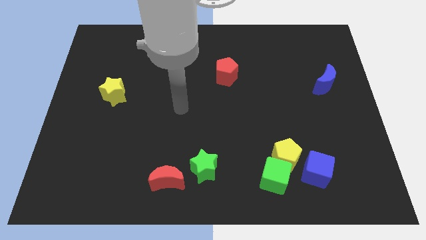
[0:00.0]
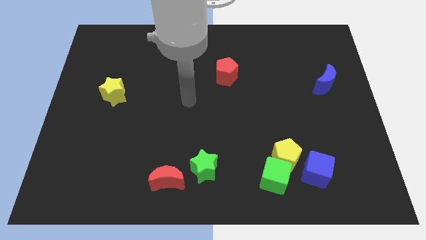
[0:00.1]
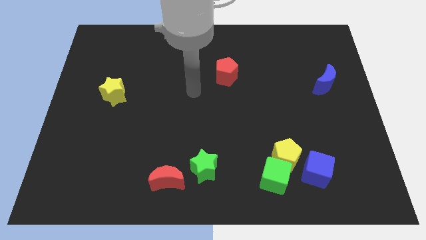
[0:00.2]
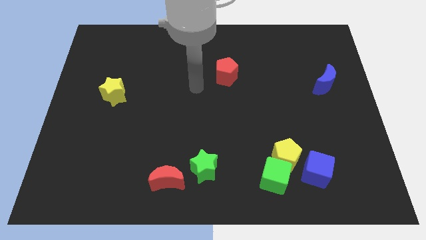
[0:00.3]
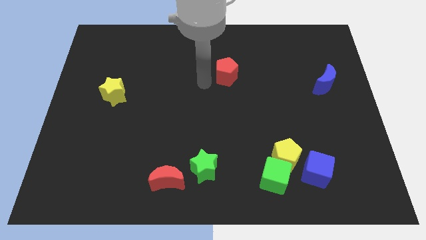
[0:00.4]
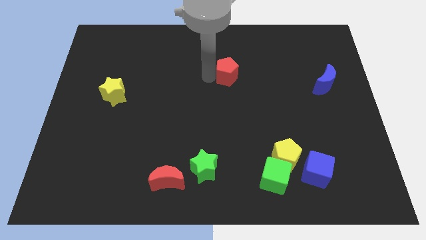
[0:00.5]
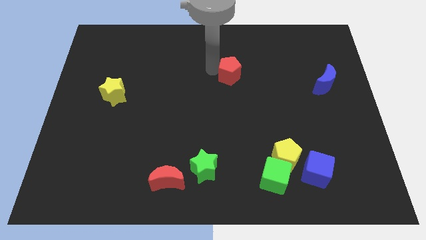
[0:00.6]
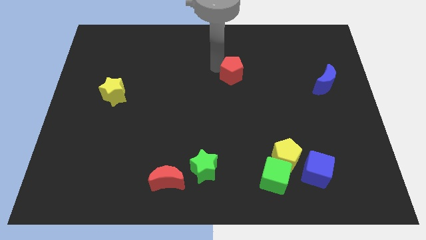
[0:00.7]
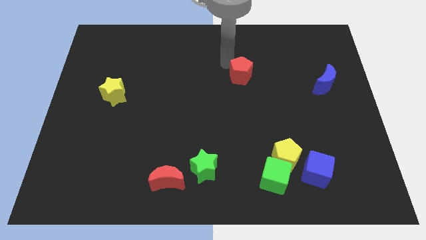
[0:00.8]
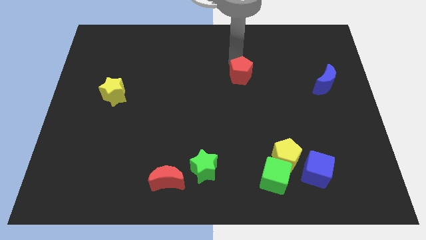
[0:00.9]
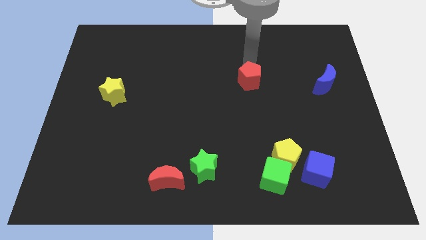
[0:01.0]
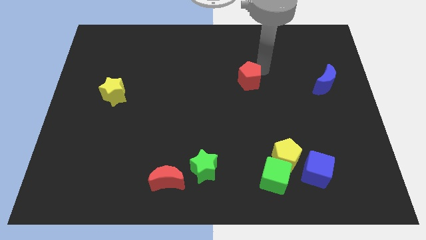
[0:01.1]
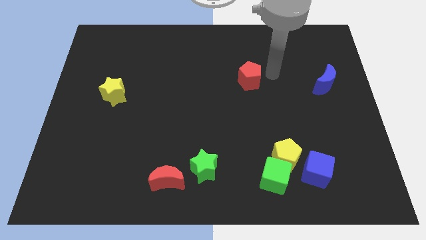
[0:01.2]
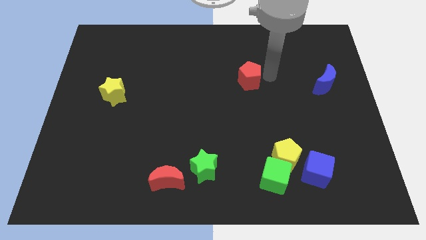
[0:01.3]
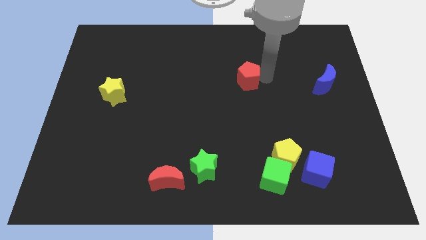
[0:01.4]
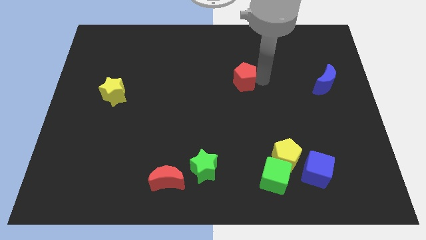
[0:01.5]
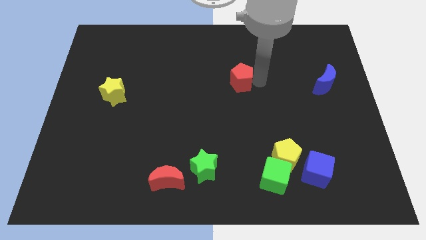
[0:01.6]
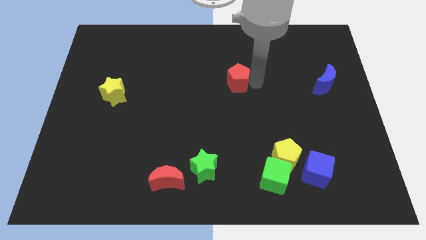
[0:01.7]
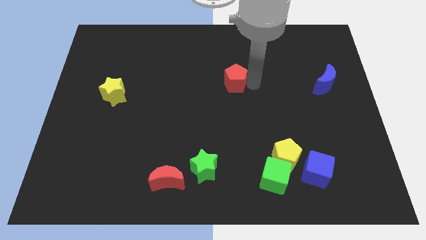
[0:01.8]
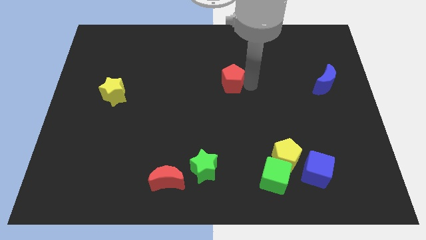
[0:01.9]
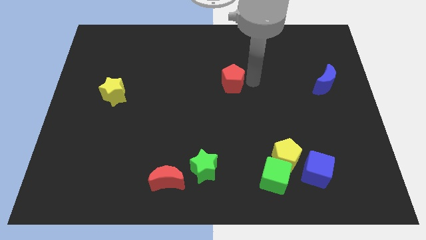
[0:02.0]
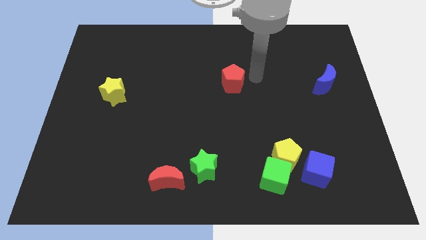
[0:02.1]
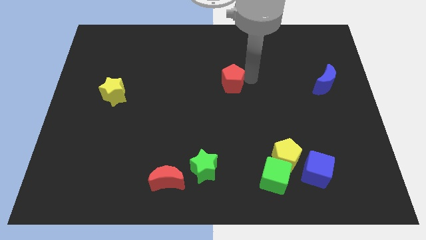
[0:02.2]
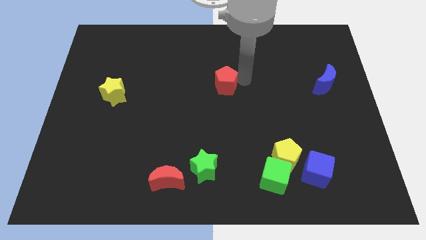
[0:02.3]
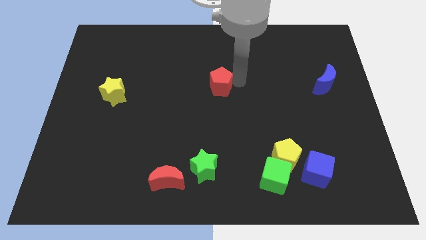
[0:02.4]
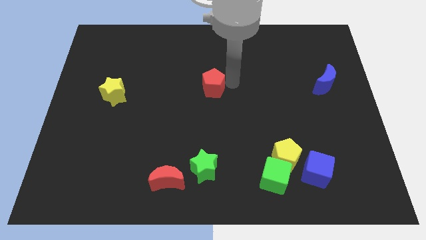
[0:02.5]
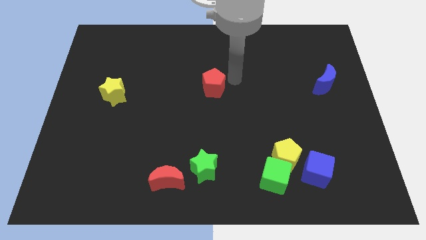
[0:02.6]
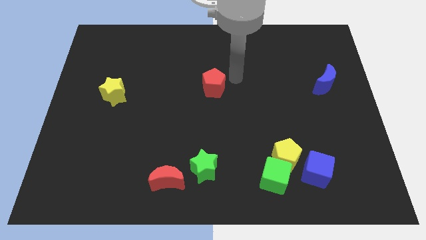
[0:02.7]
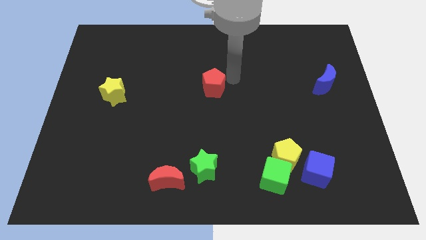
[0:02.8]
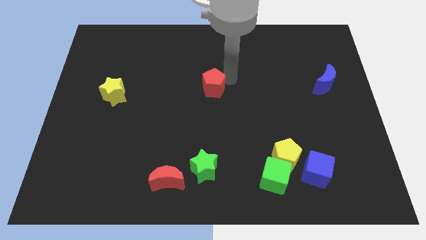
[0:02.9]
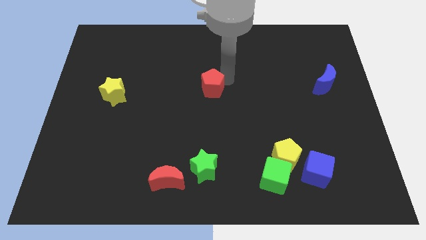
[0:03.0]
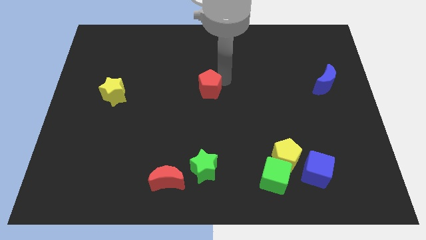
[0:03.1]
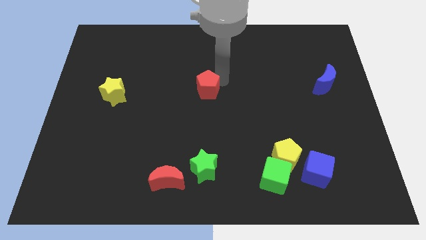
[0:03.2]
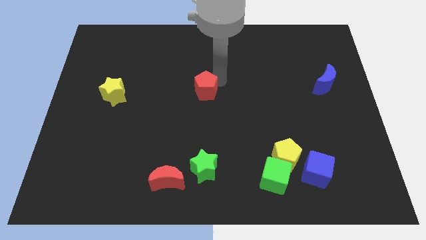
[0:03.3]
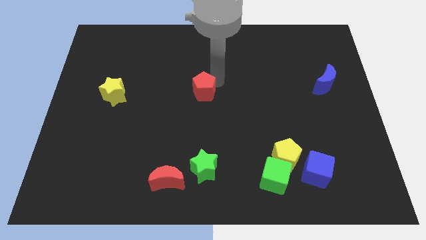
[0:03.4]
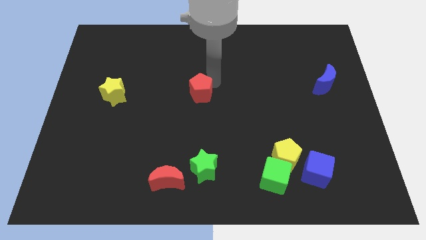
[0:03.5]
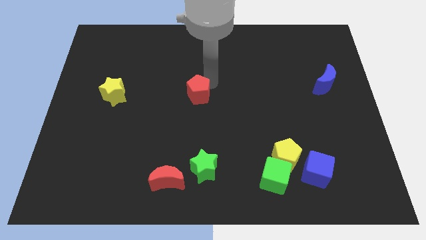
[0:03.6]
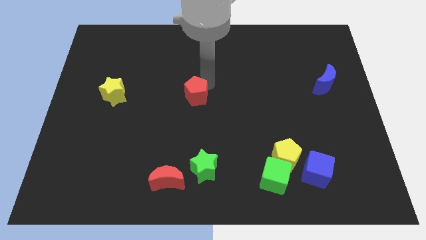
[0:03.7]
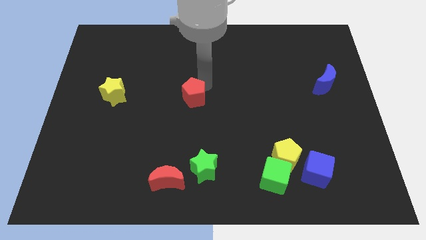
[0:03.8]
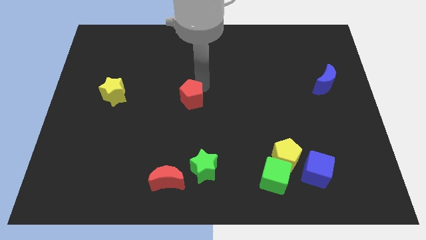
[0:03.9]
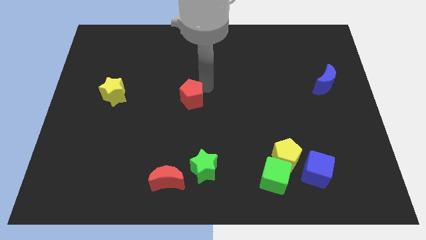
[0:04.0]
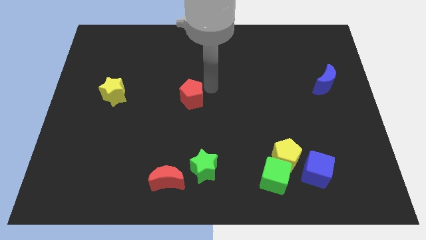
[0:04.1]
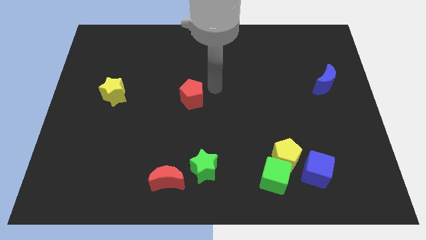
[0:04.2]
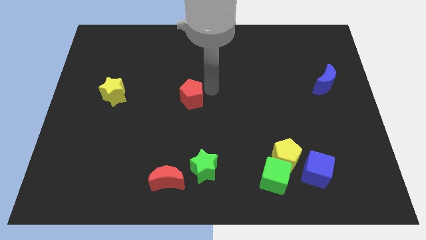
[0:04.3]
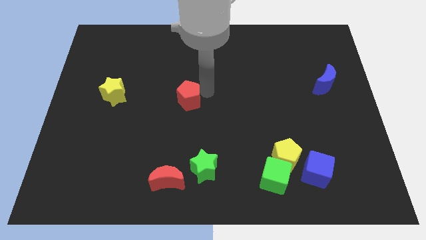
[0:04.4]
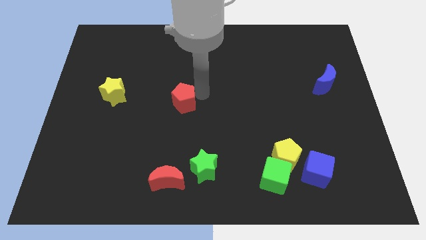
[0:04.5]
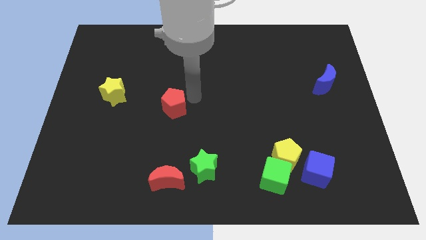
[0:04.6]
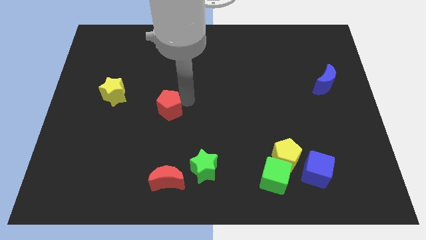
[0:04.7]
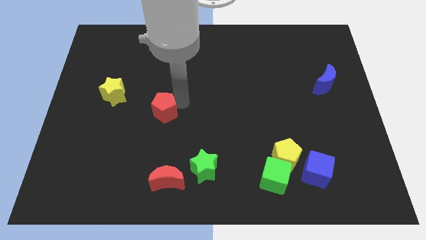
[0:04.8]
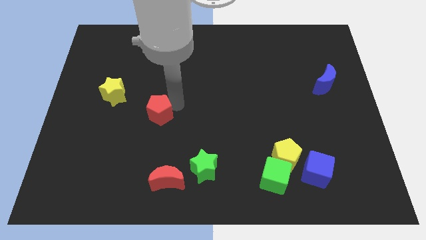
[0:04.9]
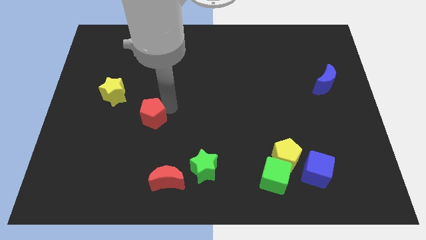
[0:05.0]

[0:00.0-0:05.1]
slide the red pentagon diagonally down and to the left

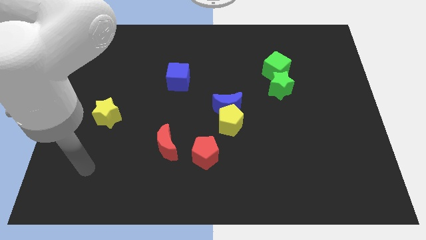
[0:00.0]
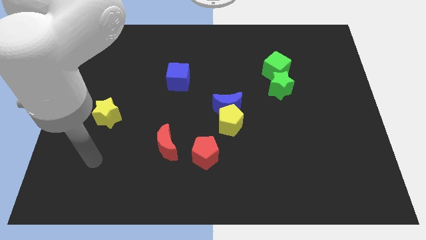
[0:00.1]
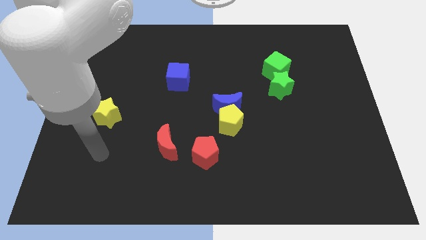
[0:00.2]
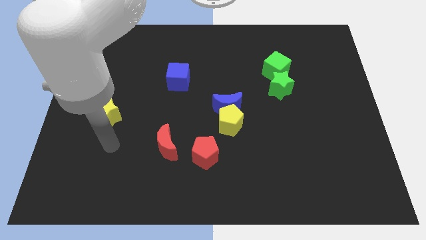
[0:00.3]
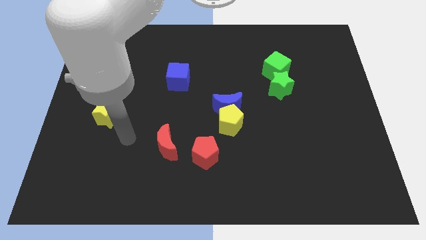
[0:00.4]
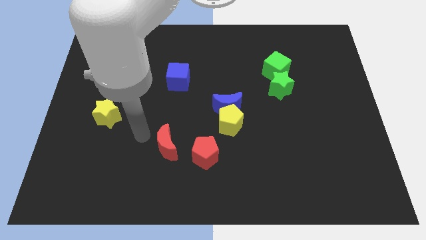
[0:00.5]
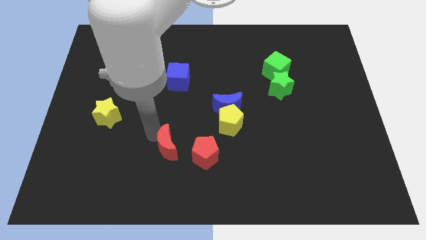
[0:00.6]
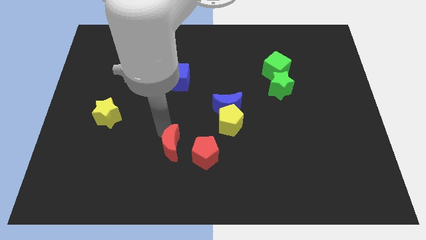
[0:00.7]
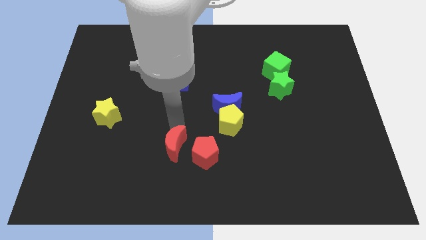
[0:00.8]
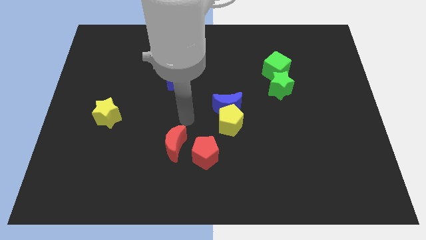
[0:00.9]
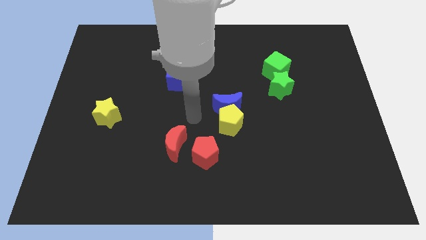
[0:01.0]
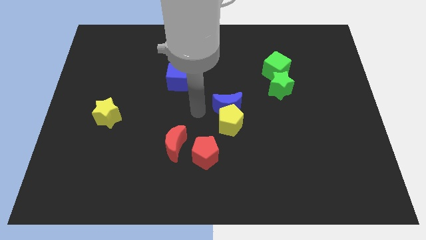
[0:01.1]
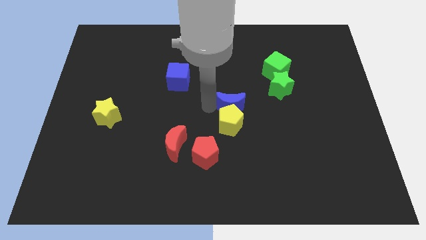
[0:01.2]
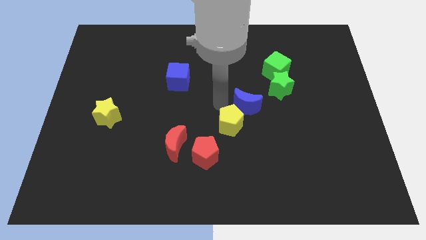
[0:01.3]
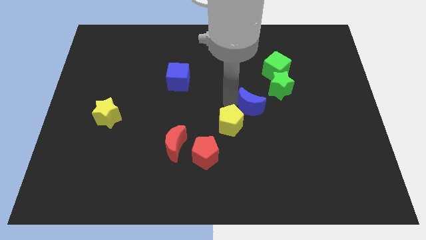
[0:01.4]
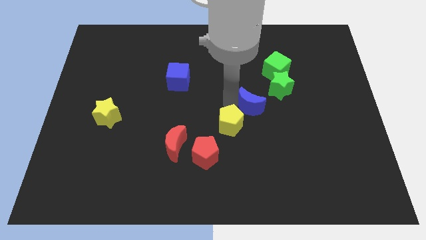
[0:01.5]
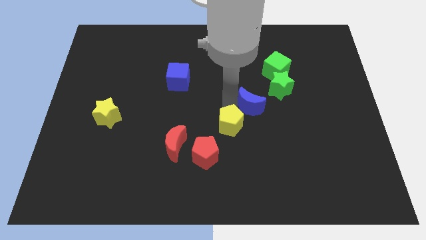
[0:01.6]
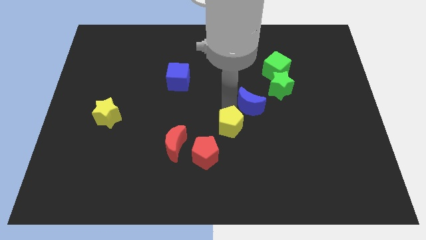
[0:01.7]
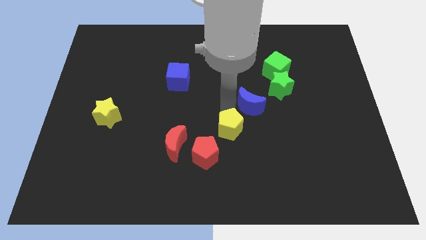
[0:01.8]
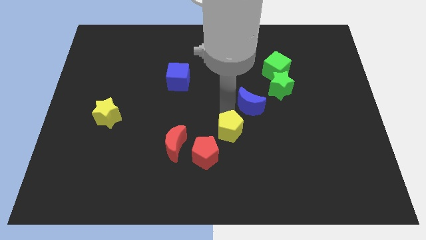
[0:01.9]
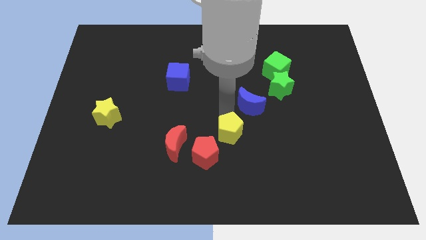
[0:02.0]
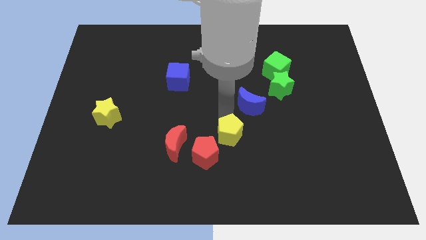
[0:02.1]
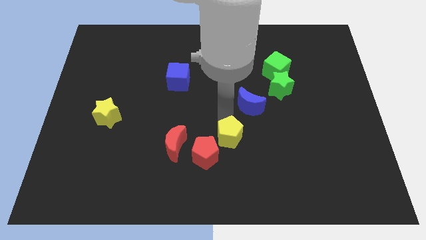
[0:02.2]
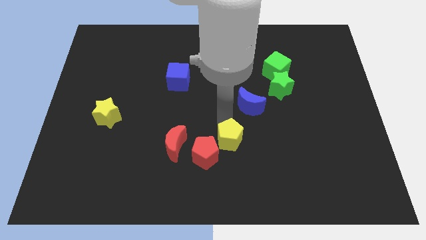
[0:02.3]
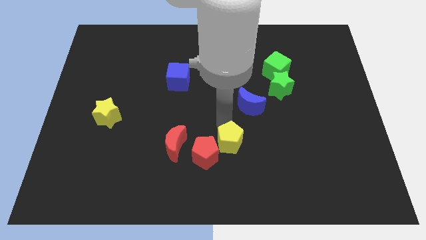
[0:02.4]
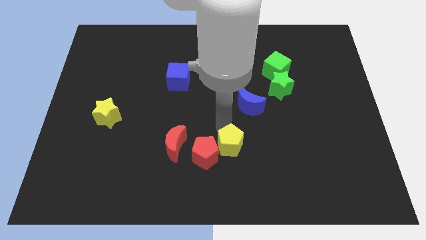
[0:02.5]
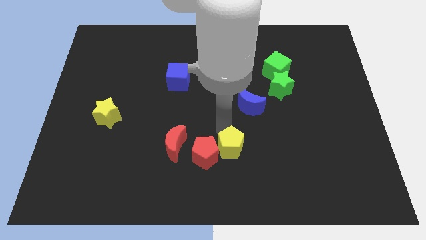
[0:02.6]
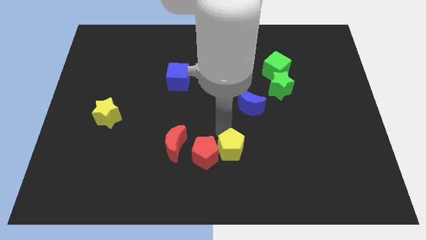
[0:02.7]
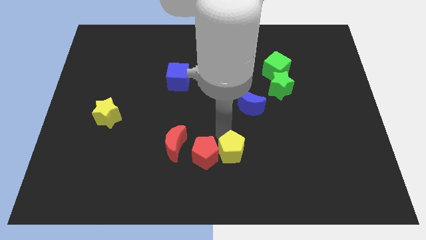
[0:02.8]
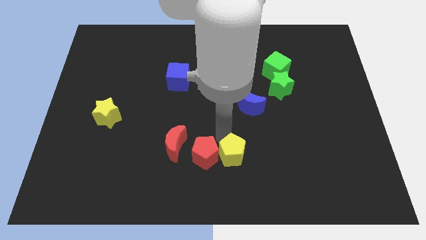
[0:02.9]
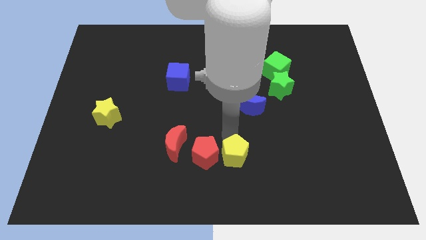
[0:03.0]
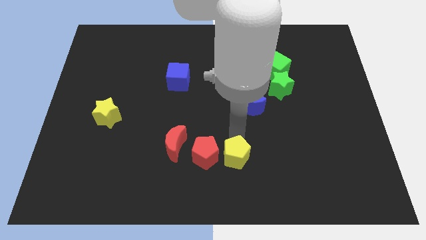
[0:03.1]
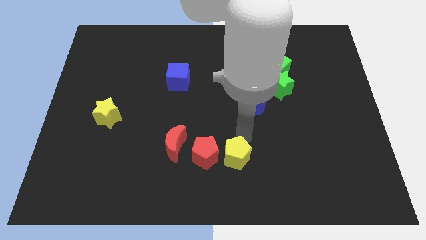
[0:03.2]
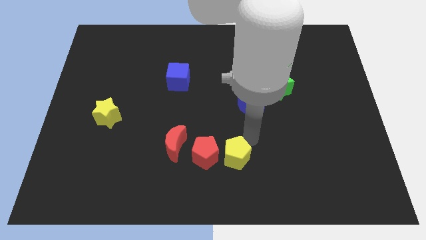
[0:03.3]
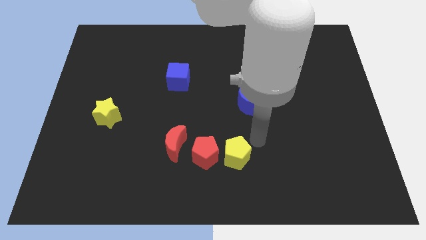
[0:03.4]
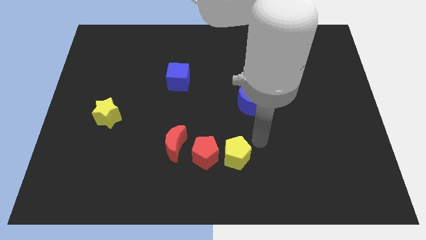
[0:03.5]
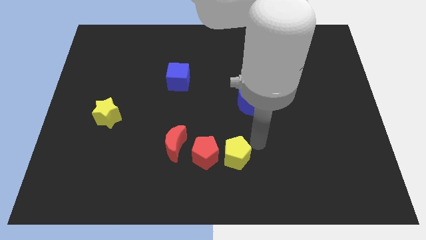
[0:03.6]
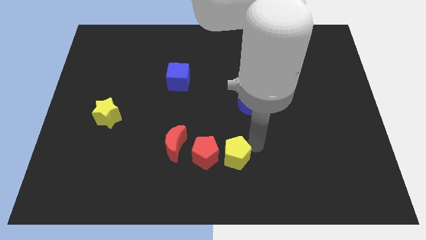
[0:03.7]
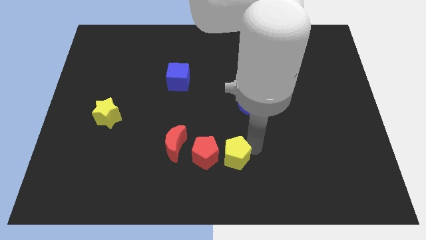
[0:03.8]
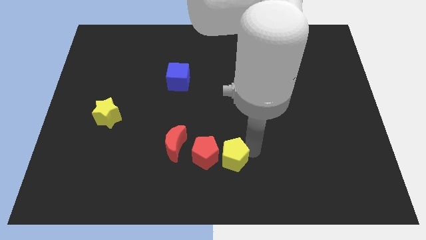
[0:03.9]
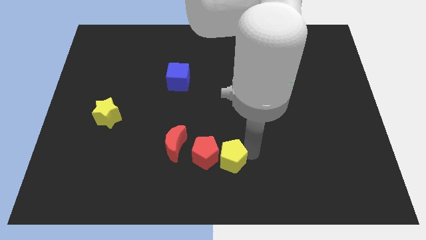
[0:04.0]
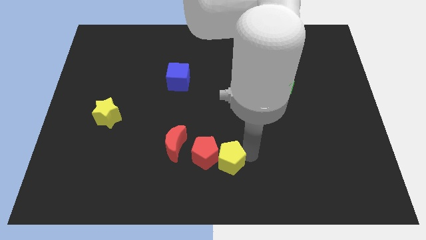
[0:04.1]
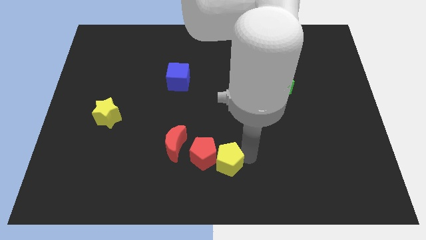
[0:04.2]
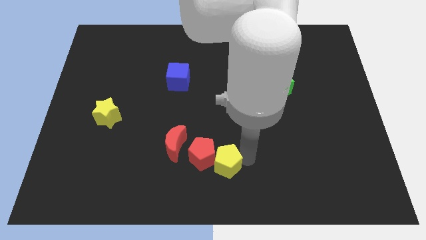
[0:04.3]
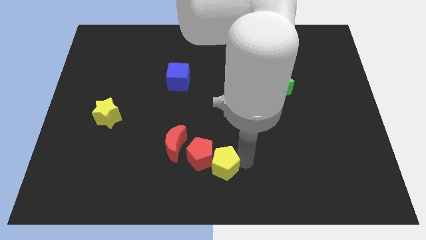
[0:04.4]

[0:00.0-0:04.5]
slightly move the yellow pentagon diagonally downwards and left
